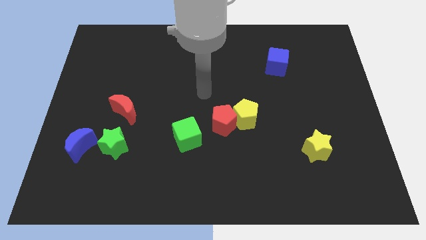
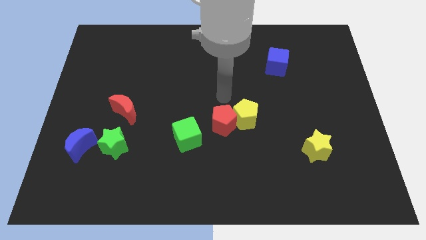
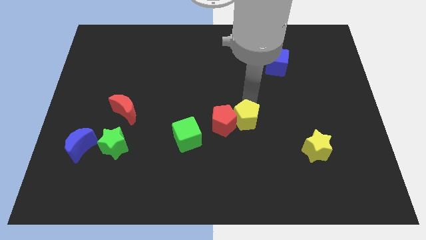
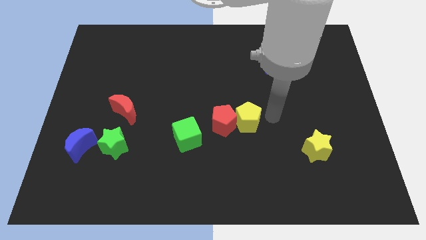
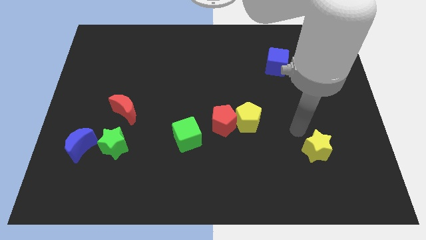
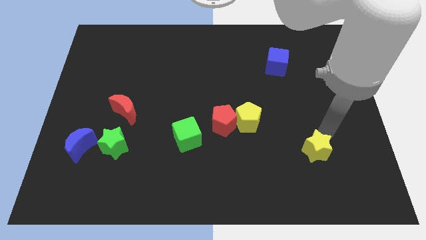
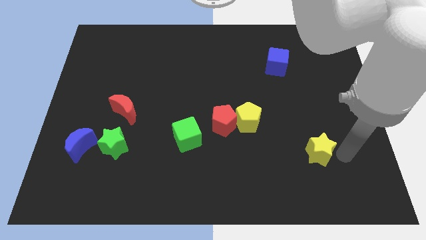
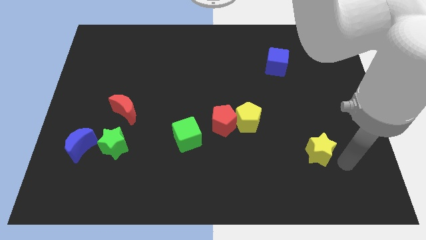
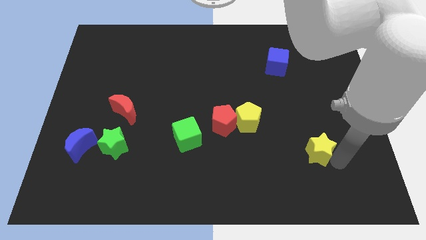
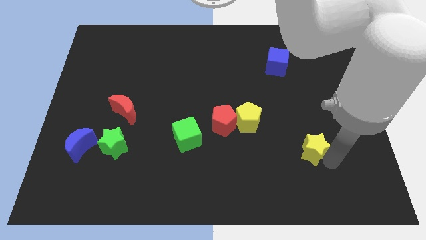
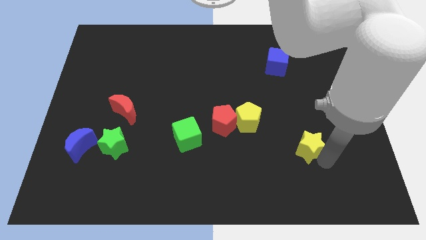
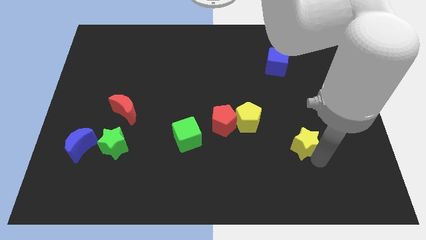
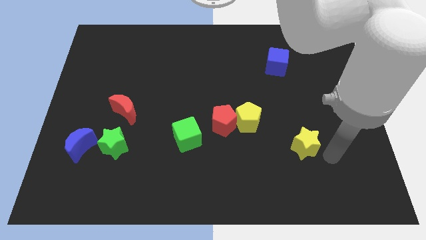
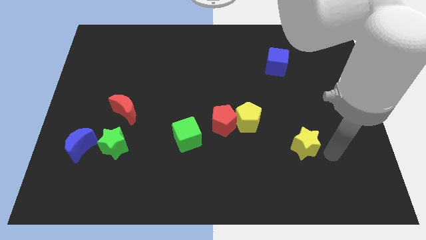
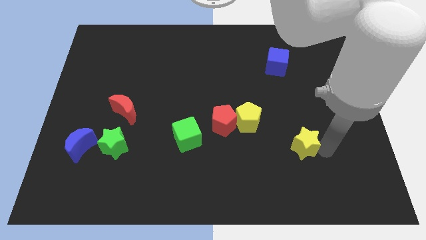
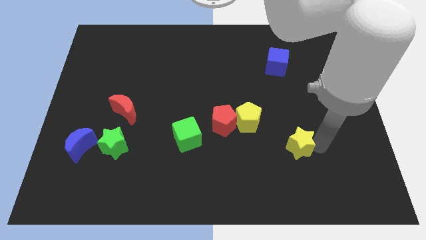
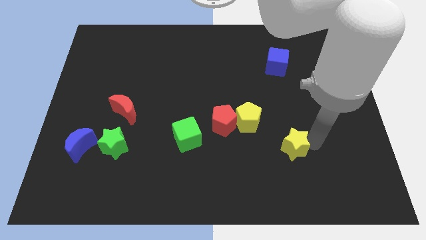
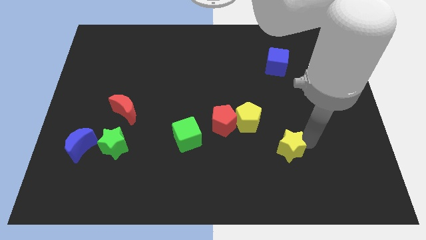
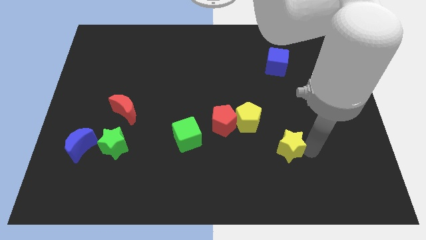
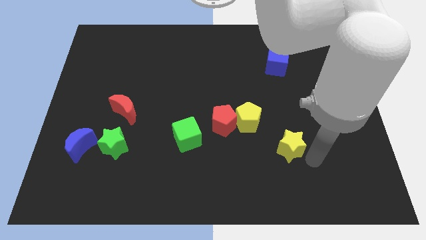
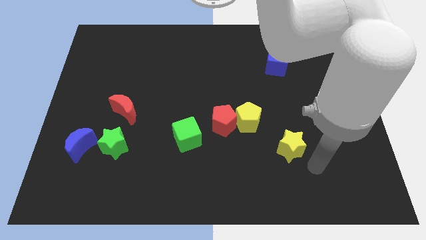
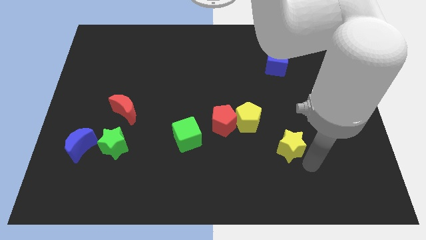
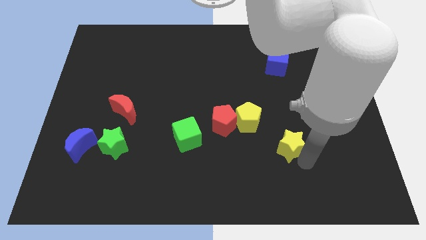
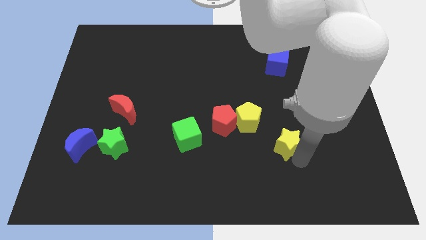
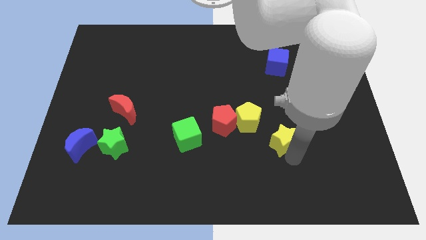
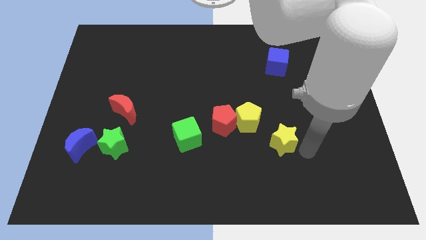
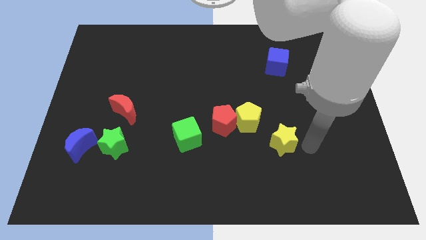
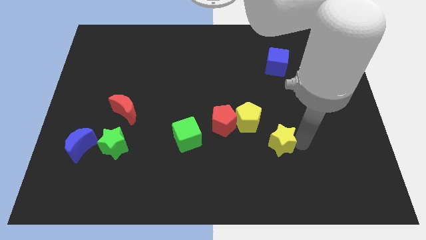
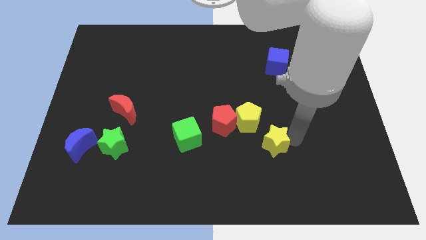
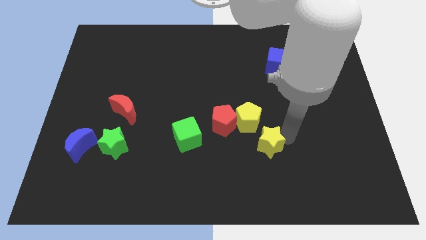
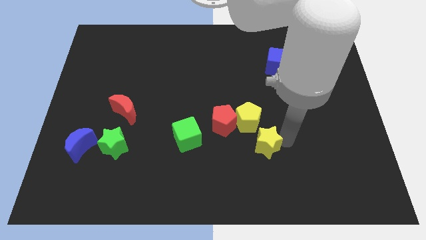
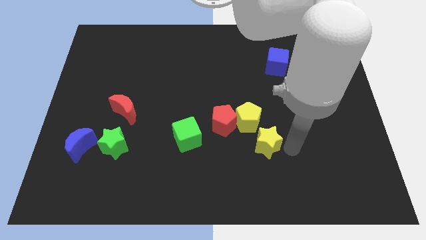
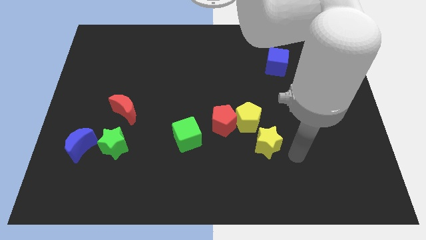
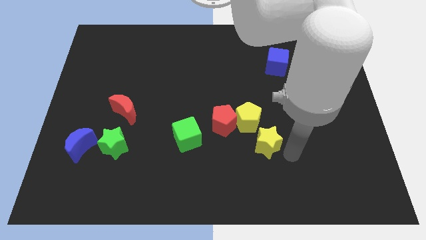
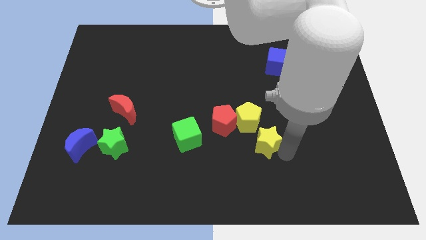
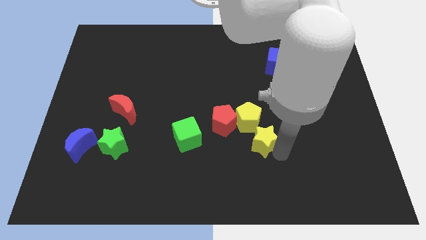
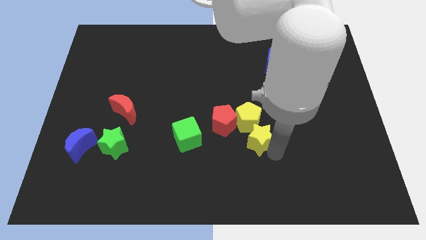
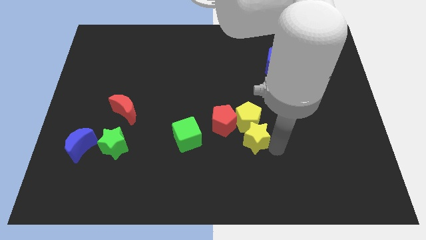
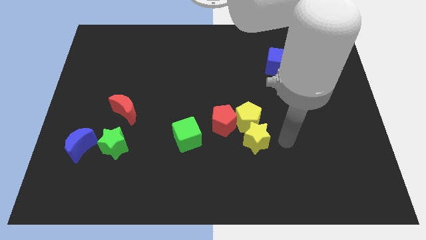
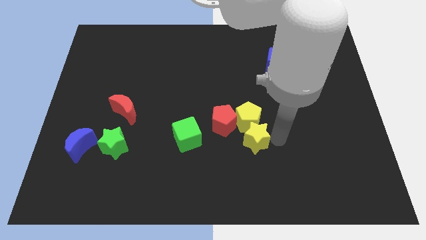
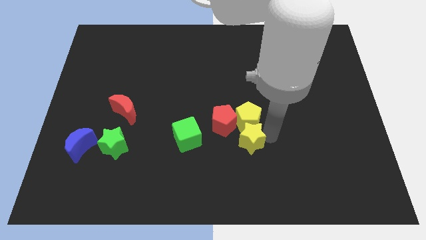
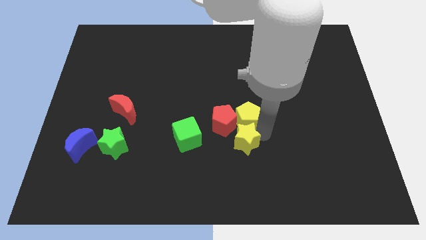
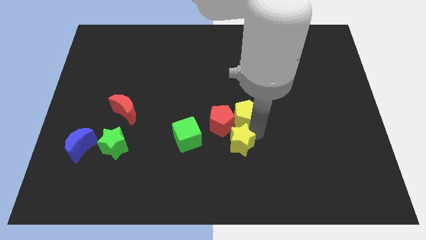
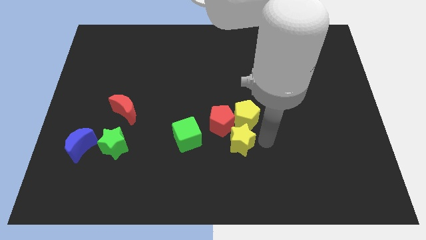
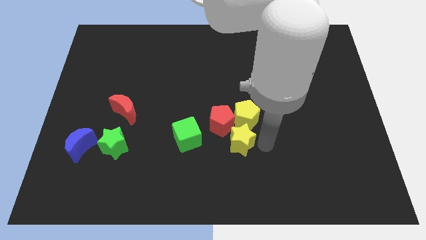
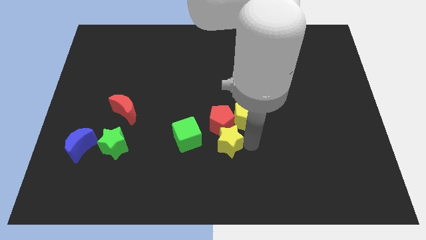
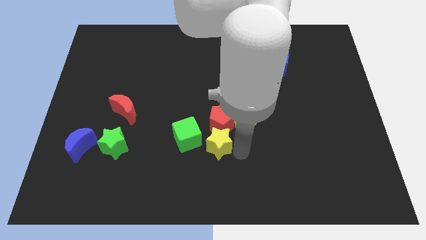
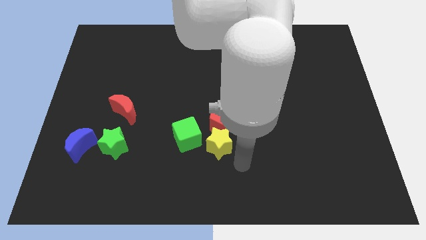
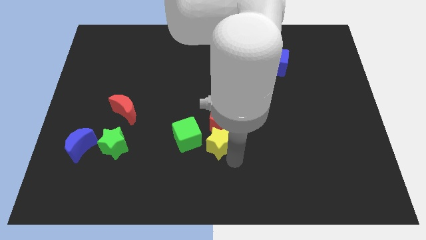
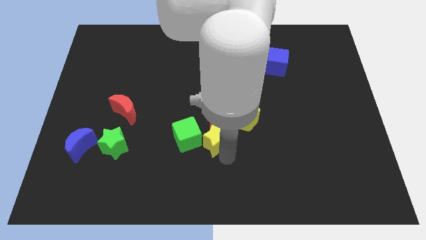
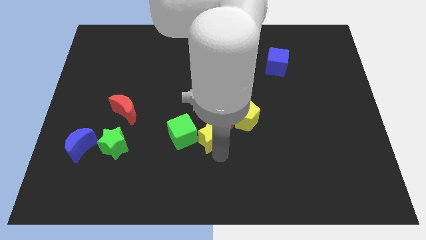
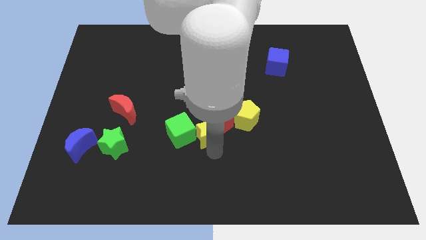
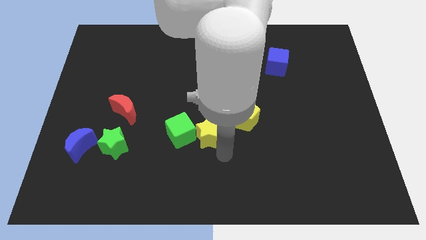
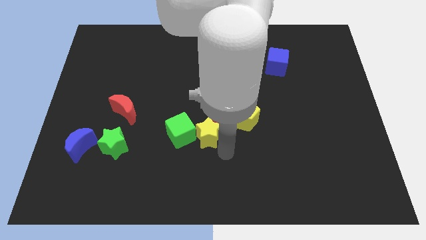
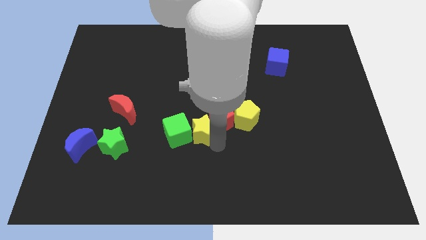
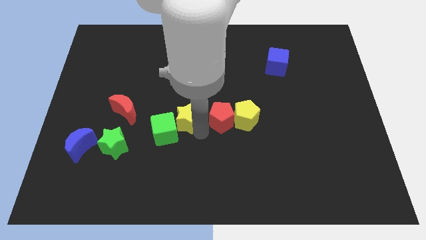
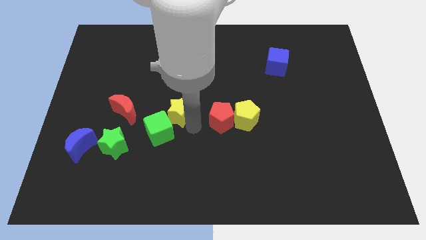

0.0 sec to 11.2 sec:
slide the yellow star to the top side of the green cube

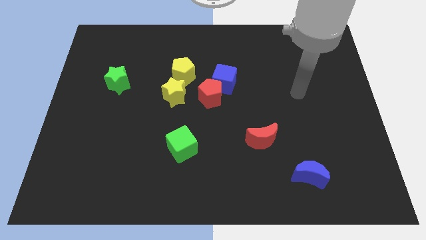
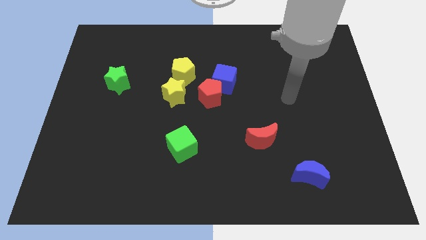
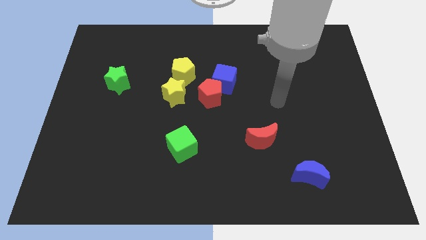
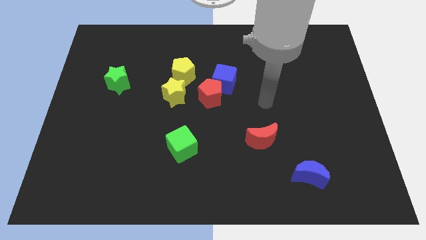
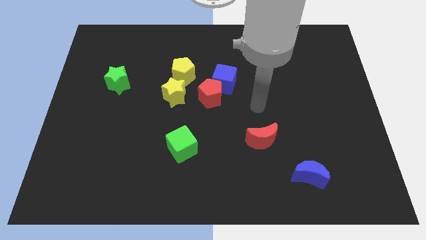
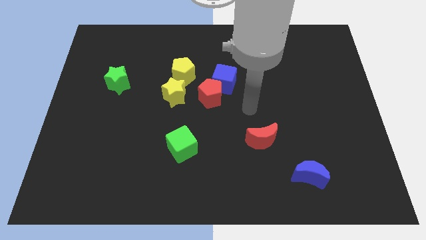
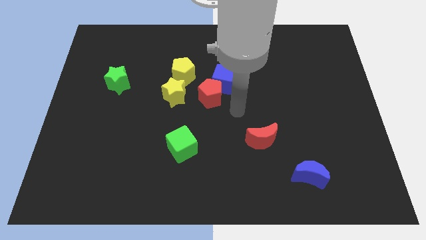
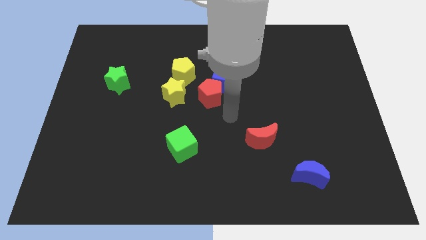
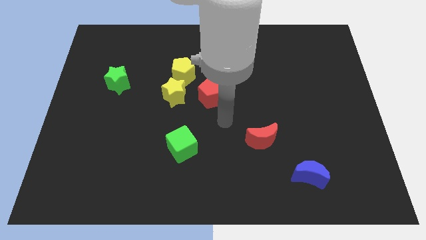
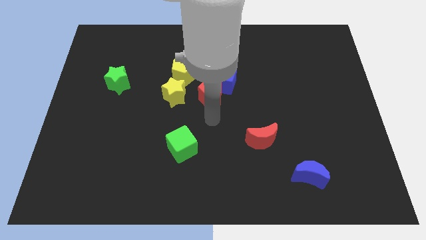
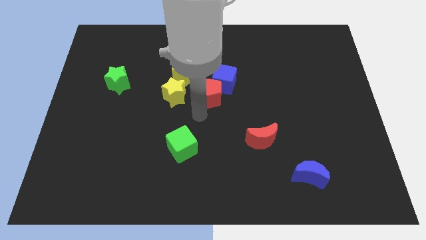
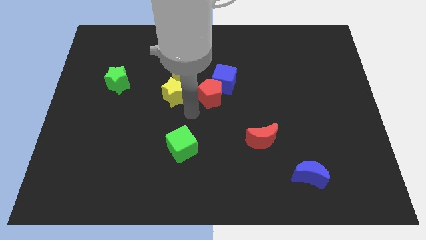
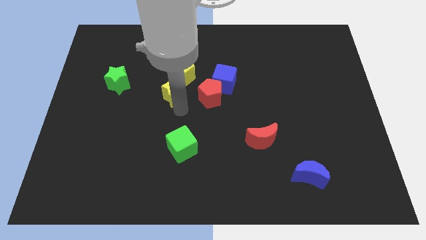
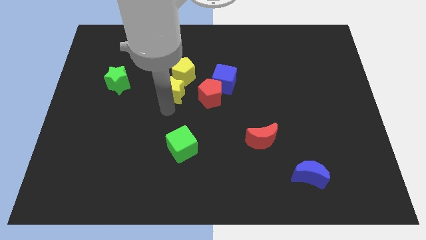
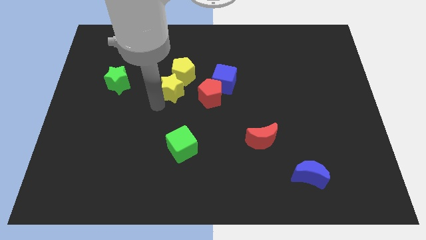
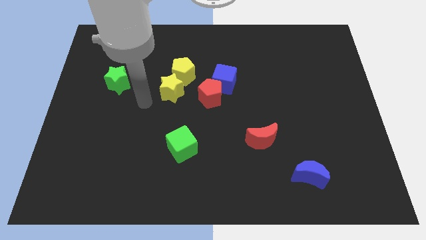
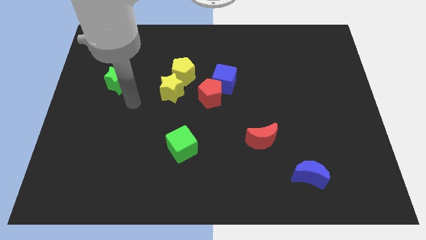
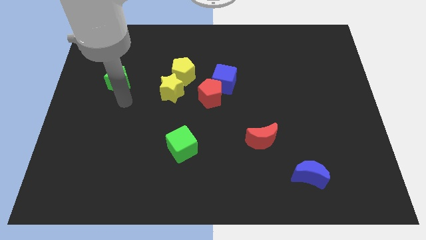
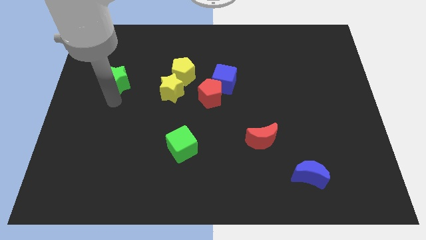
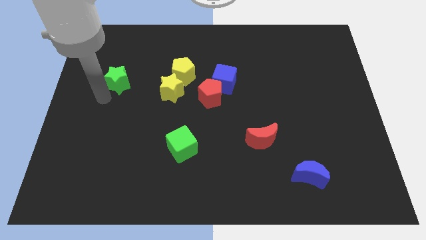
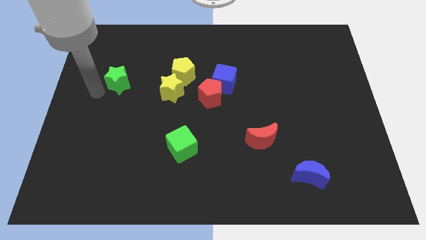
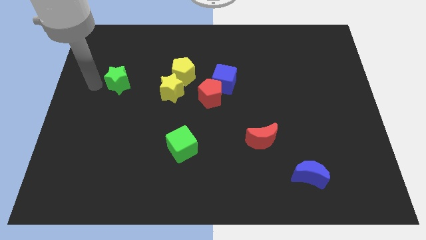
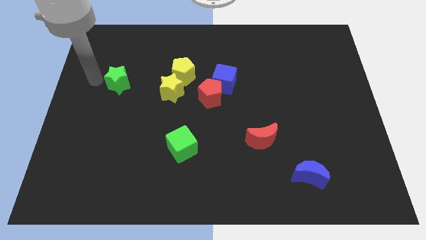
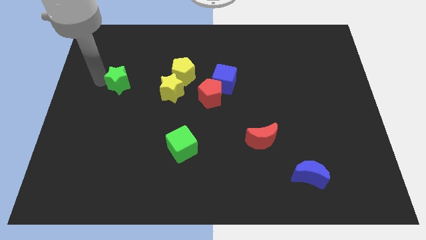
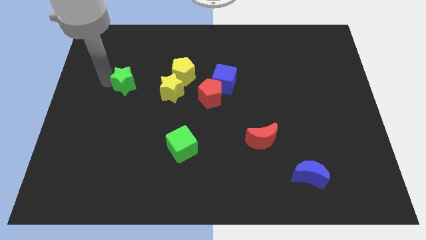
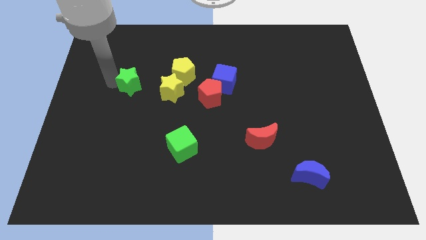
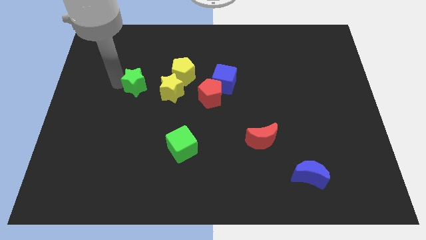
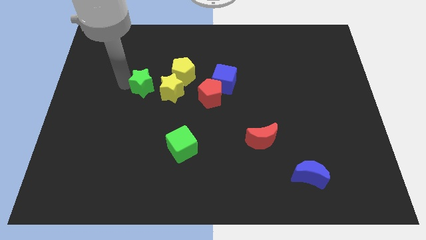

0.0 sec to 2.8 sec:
move the green star diagonally down and to the left of the yellow pentagon
